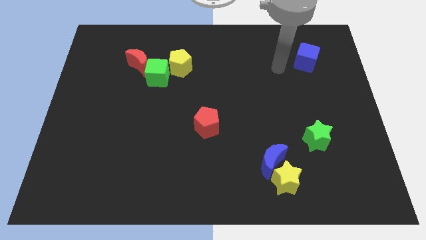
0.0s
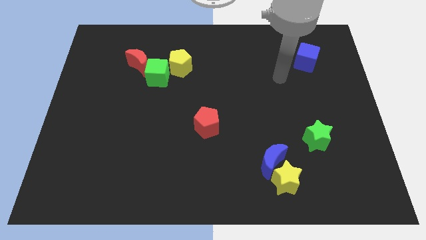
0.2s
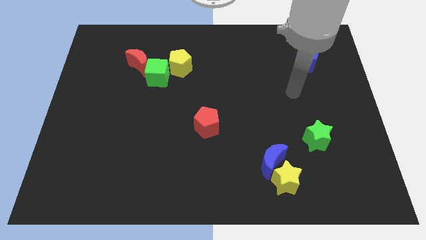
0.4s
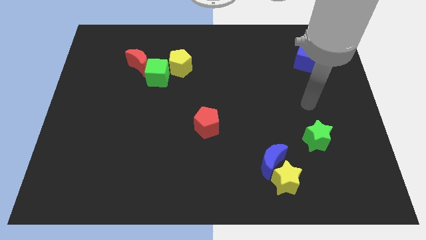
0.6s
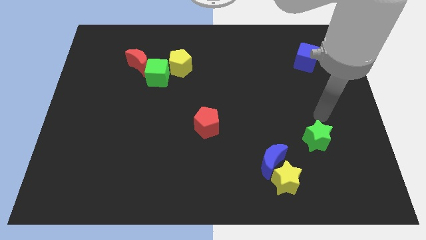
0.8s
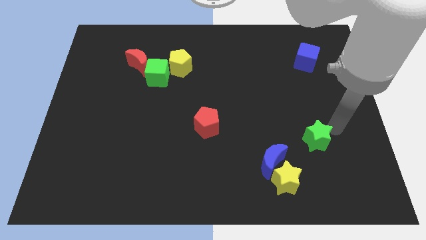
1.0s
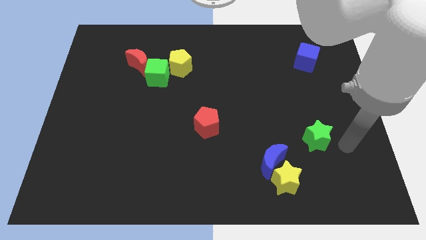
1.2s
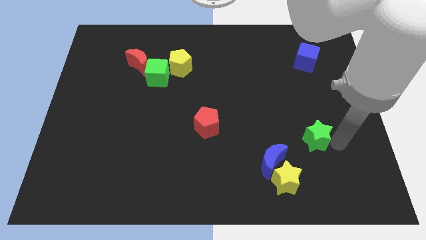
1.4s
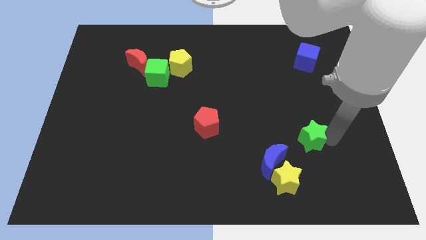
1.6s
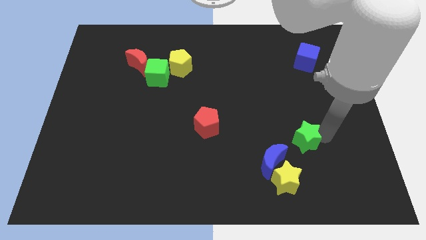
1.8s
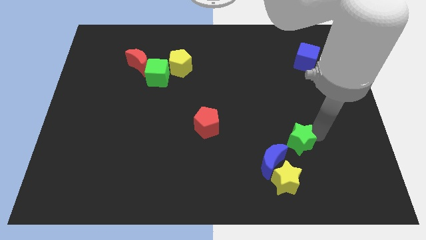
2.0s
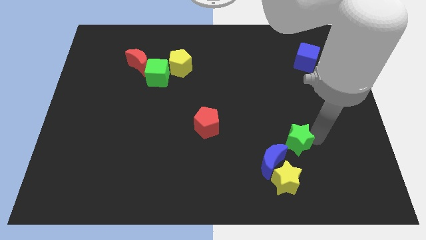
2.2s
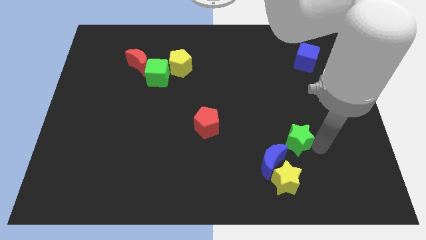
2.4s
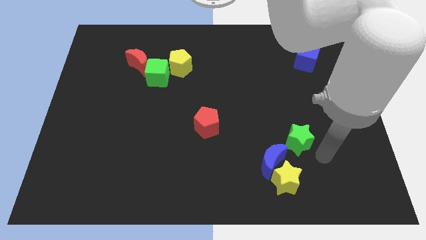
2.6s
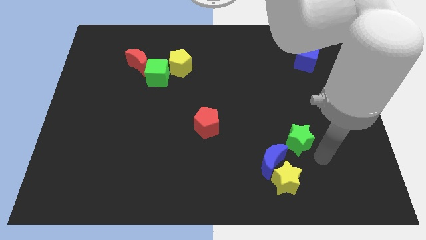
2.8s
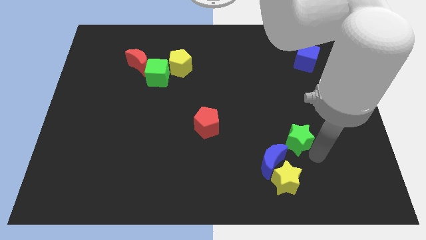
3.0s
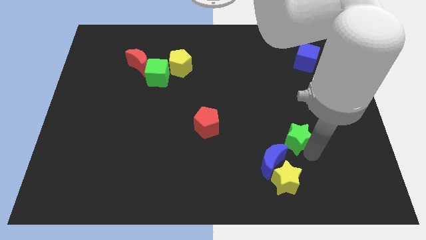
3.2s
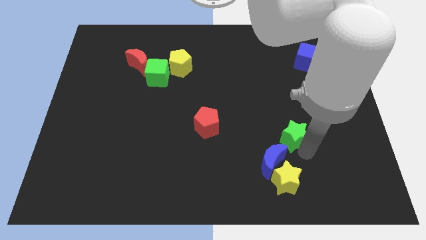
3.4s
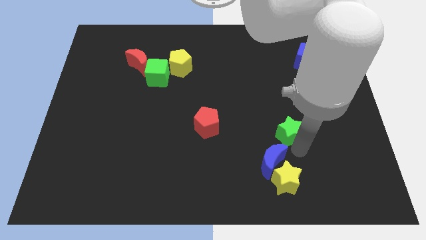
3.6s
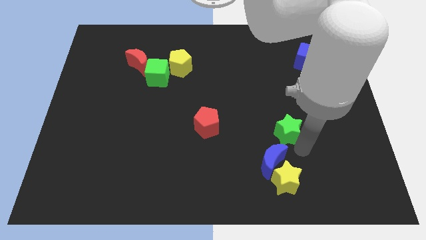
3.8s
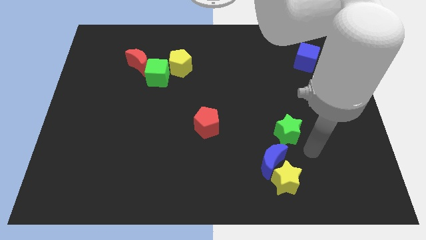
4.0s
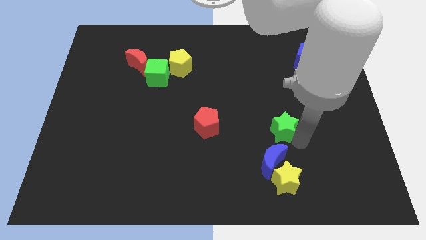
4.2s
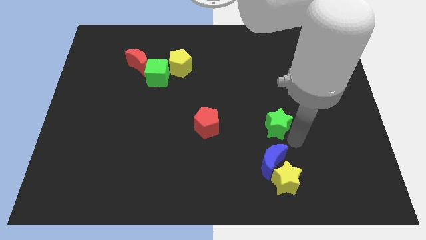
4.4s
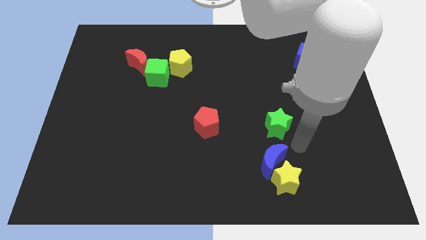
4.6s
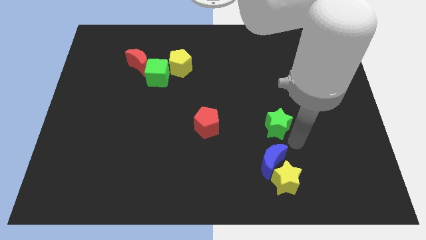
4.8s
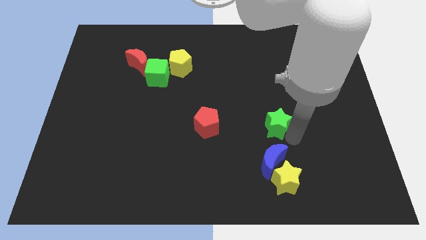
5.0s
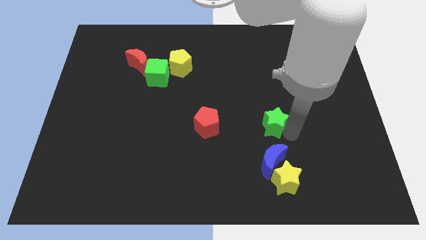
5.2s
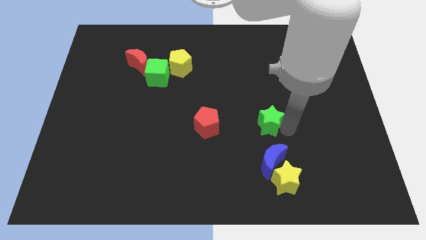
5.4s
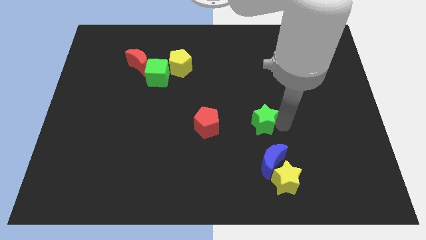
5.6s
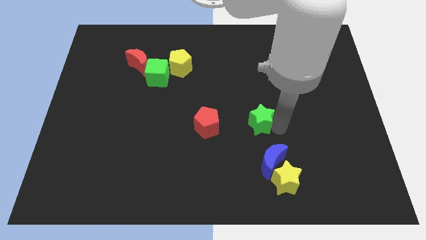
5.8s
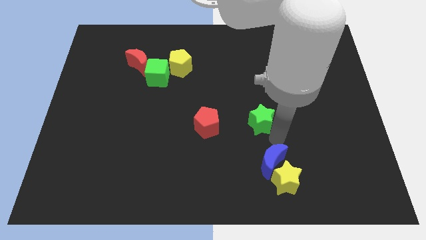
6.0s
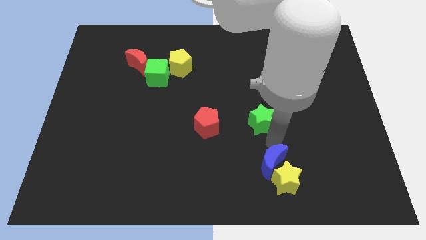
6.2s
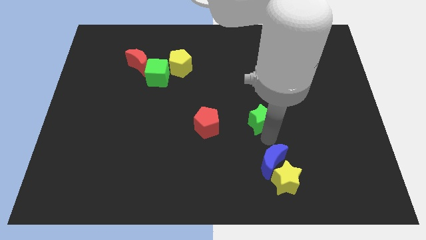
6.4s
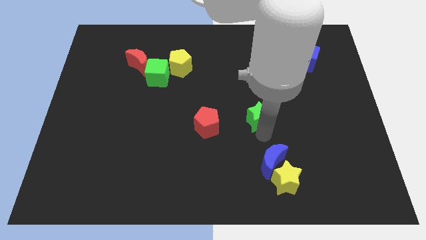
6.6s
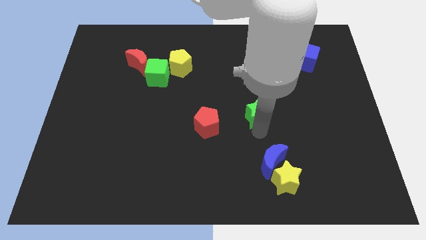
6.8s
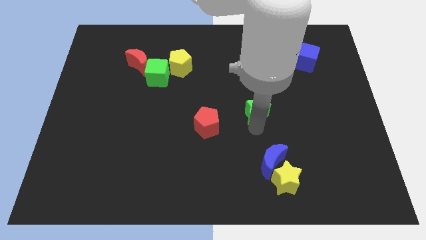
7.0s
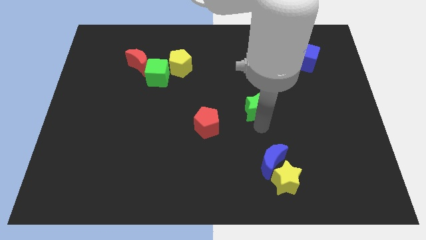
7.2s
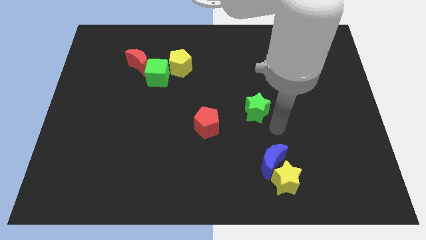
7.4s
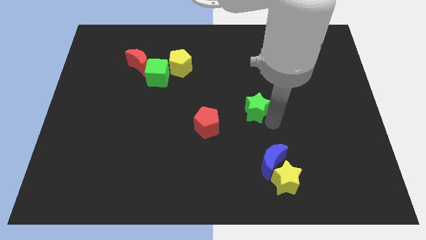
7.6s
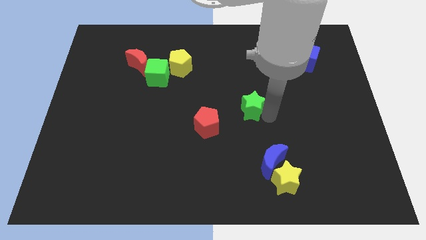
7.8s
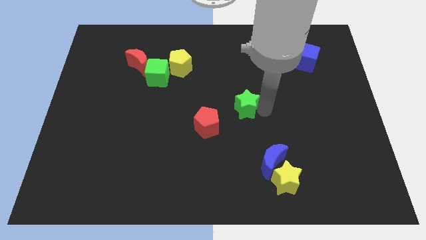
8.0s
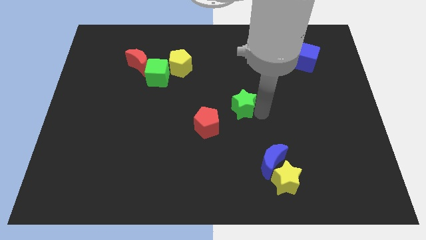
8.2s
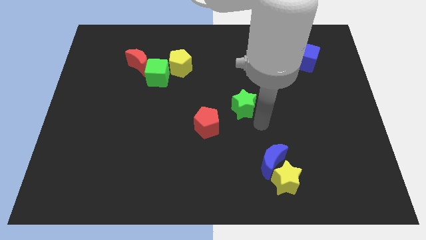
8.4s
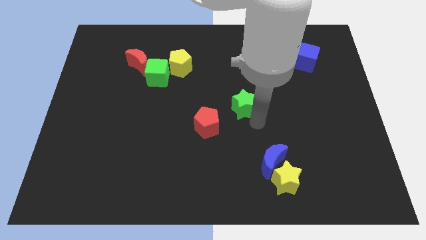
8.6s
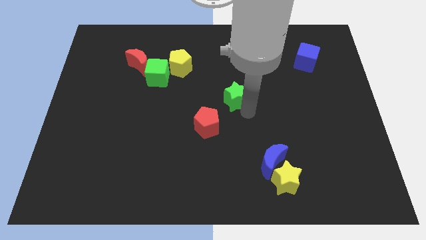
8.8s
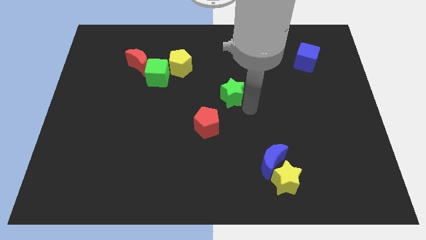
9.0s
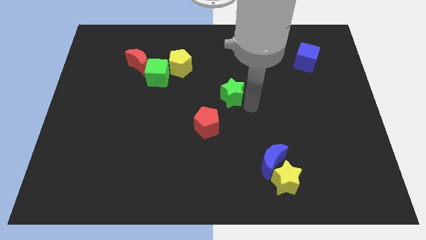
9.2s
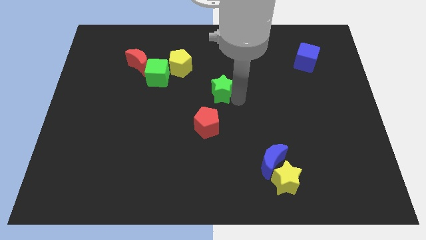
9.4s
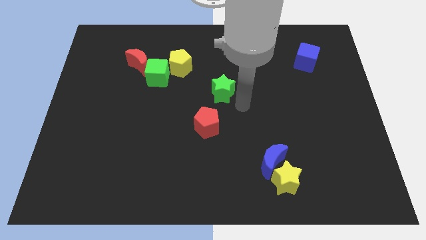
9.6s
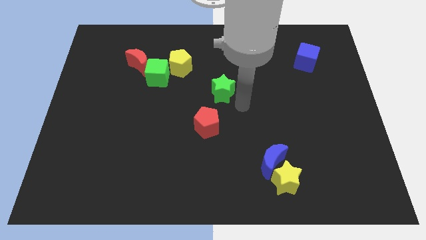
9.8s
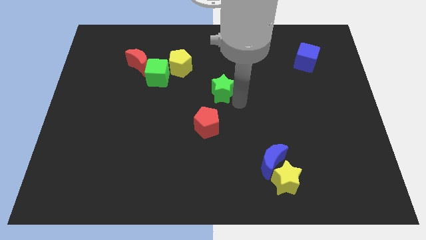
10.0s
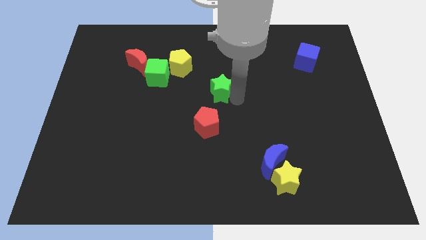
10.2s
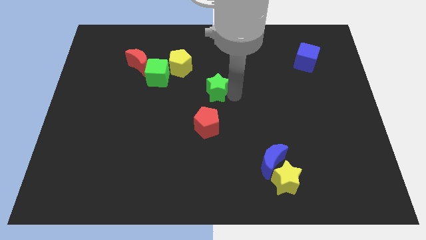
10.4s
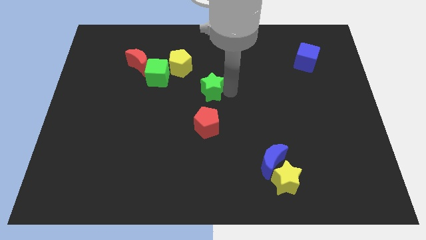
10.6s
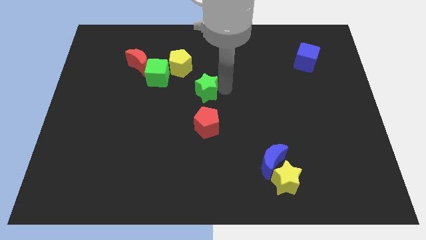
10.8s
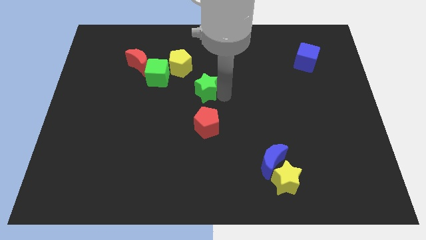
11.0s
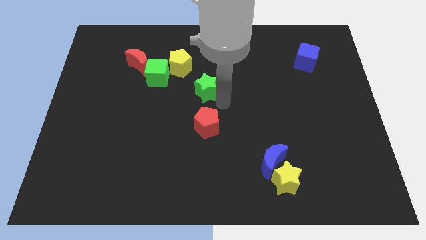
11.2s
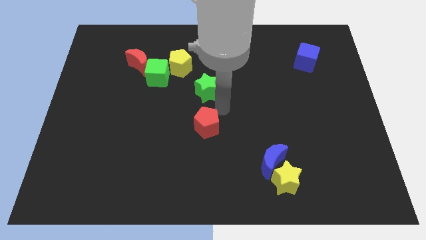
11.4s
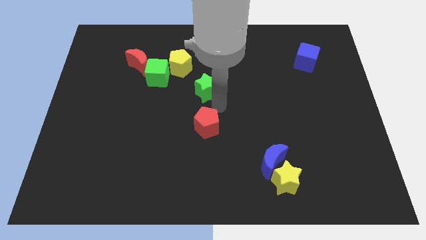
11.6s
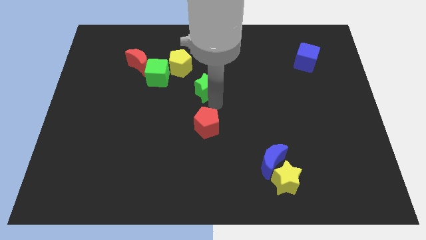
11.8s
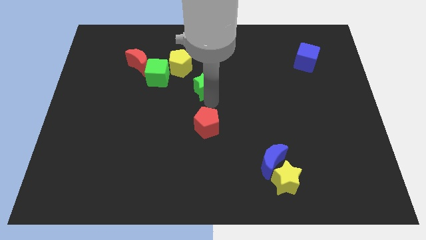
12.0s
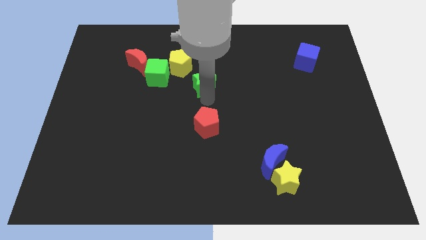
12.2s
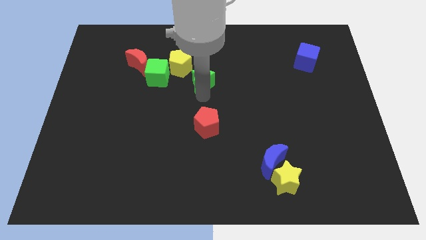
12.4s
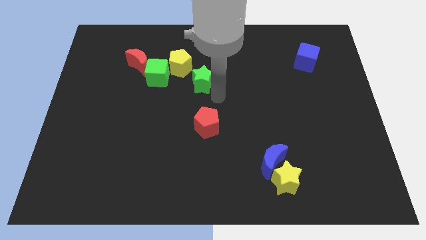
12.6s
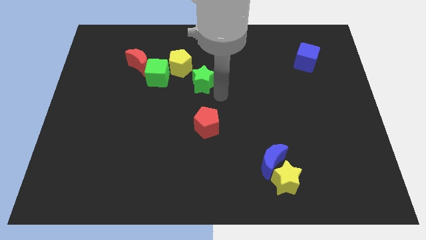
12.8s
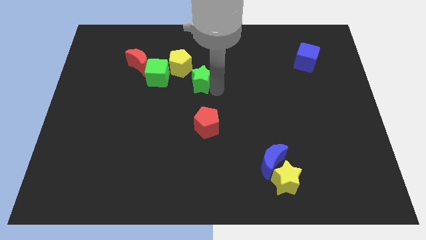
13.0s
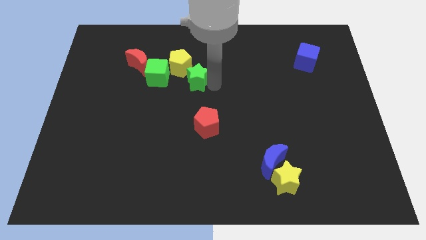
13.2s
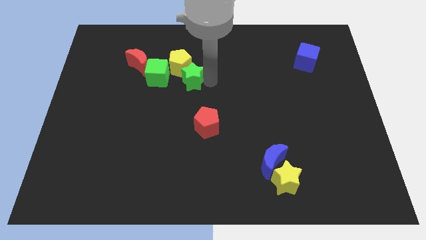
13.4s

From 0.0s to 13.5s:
push the green star towards the yellow pentagon

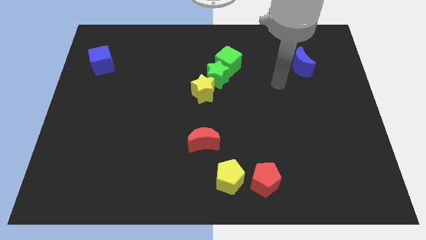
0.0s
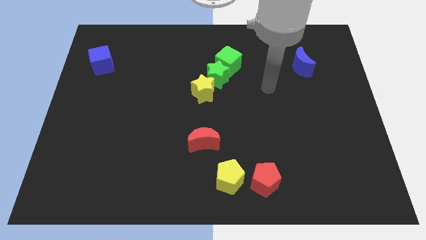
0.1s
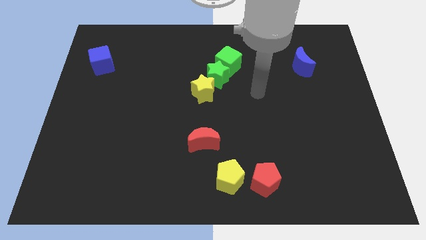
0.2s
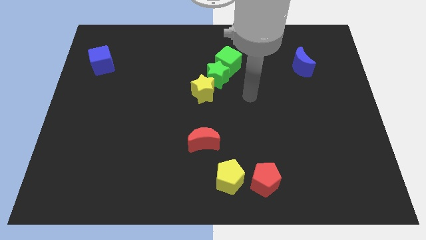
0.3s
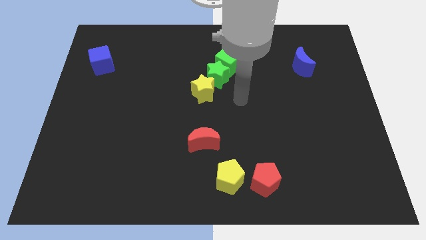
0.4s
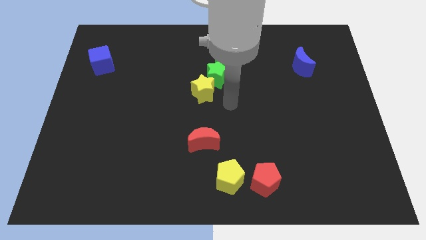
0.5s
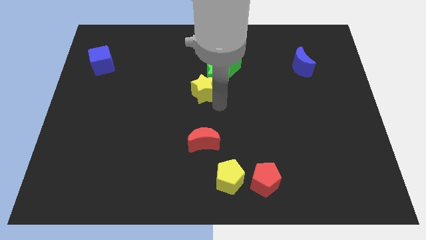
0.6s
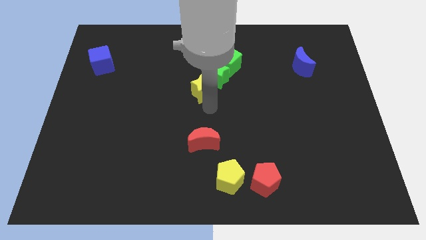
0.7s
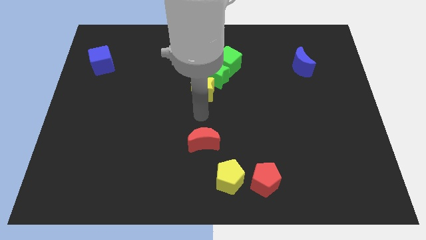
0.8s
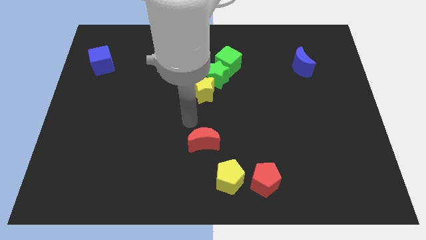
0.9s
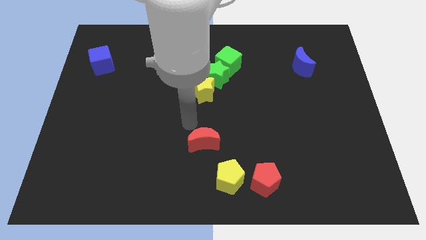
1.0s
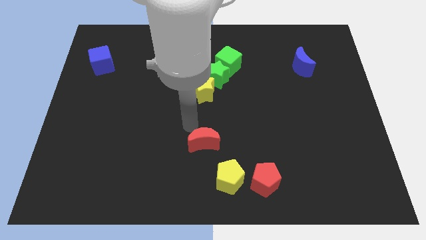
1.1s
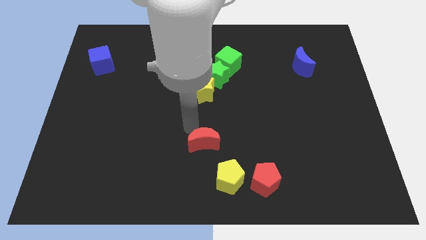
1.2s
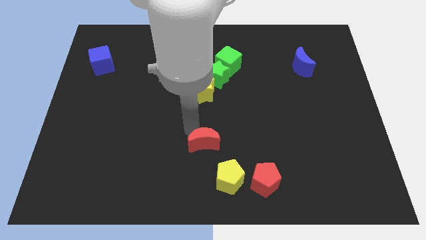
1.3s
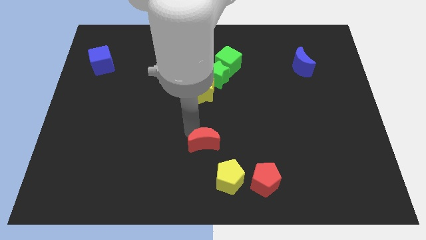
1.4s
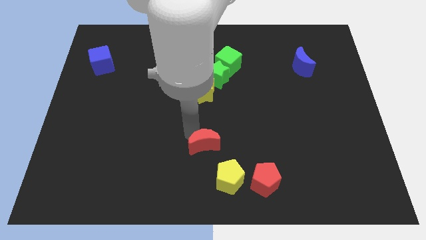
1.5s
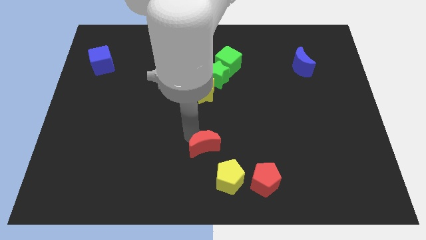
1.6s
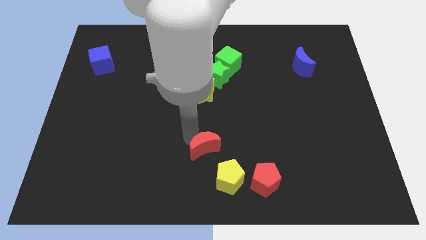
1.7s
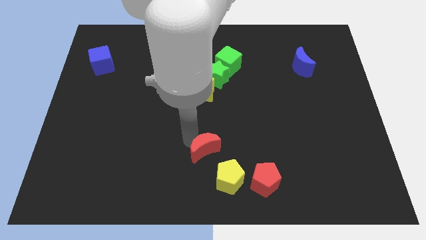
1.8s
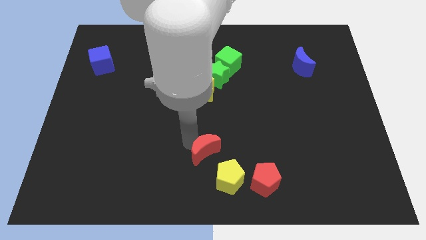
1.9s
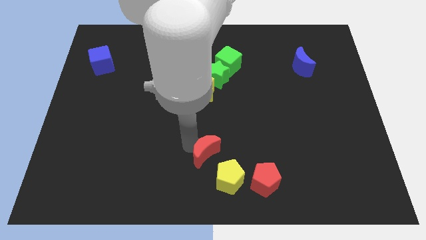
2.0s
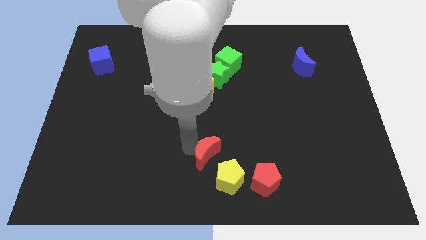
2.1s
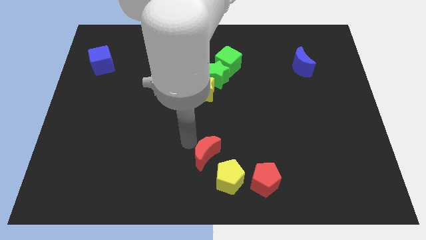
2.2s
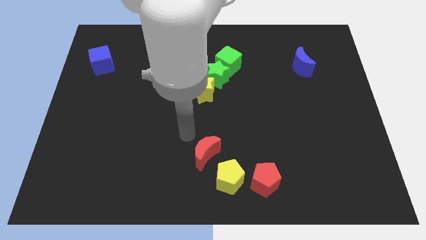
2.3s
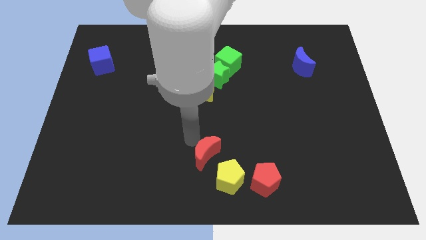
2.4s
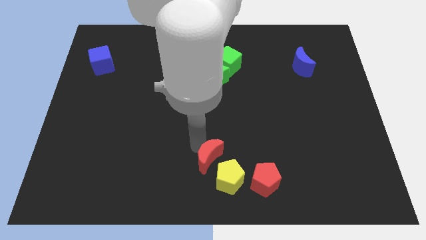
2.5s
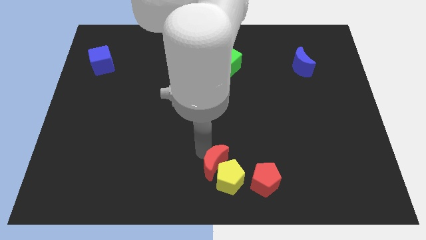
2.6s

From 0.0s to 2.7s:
move the red moon next to the yellow pentagon
